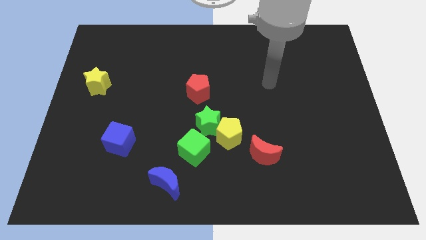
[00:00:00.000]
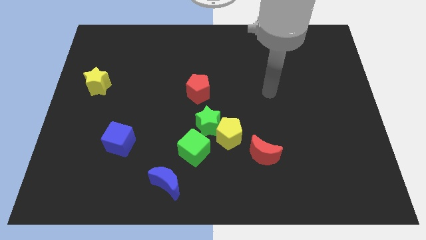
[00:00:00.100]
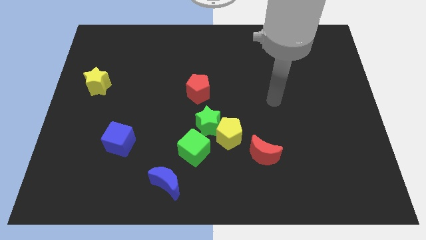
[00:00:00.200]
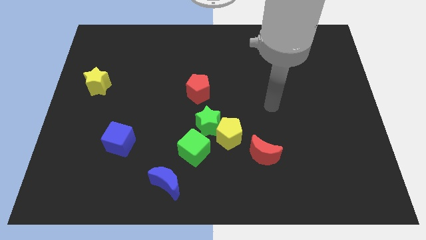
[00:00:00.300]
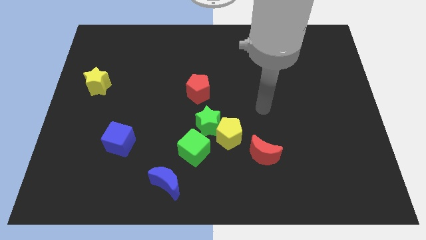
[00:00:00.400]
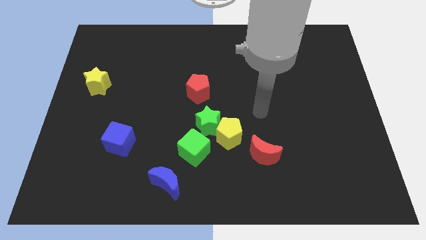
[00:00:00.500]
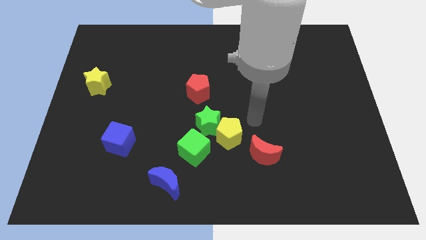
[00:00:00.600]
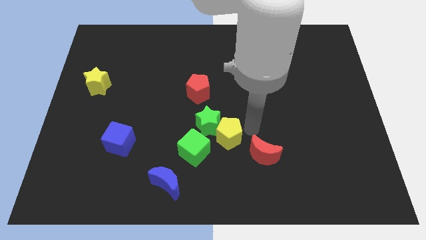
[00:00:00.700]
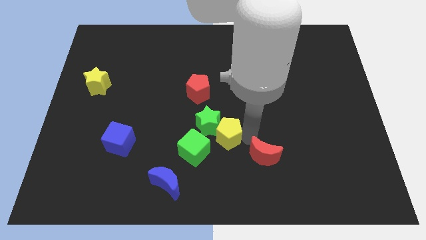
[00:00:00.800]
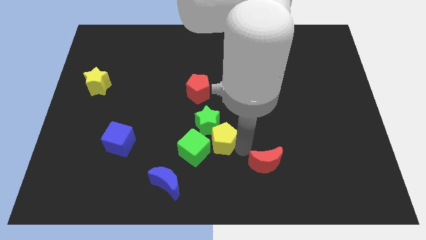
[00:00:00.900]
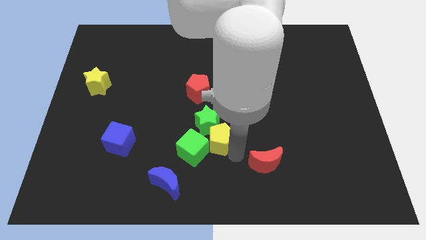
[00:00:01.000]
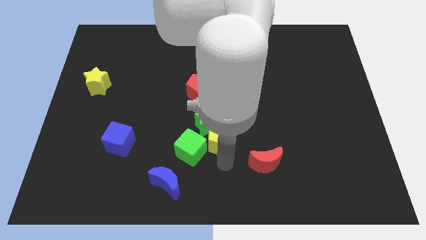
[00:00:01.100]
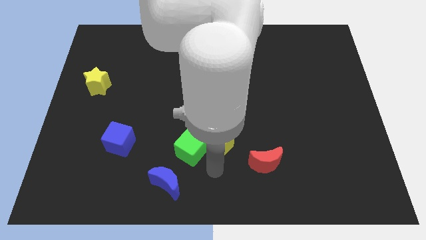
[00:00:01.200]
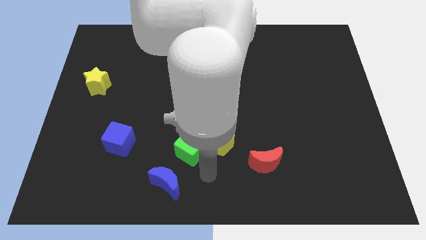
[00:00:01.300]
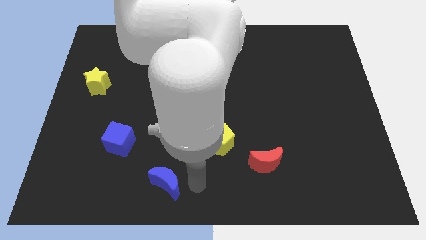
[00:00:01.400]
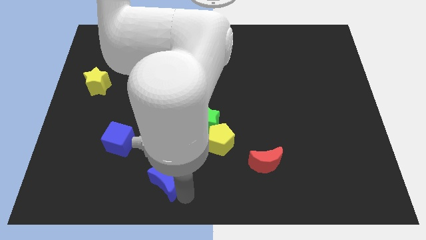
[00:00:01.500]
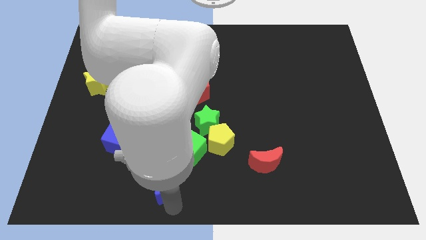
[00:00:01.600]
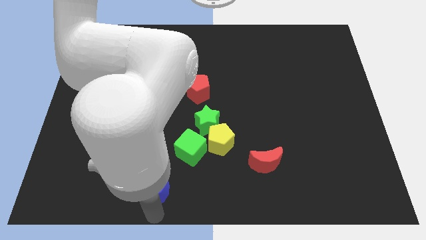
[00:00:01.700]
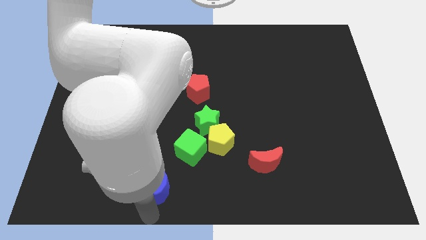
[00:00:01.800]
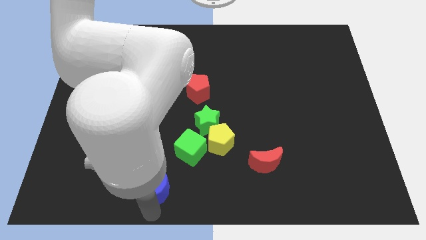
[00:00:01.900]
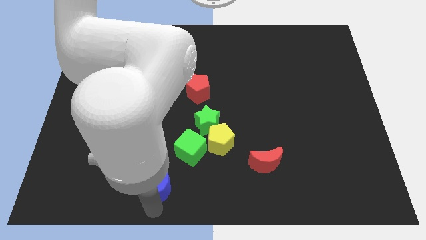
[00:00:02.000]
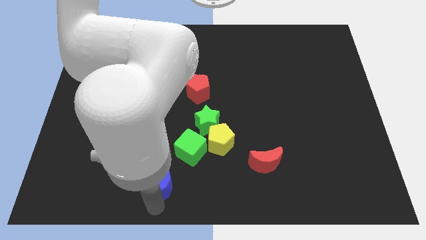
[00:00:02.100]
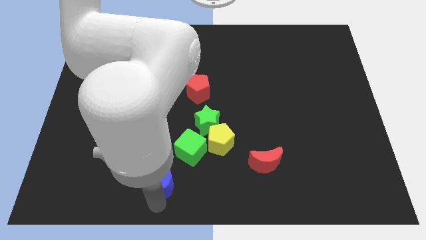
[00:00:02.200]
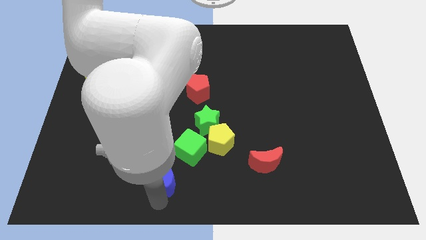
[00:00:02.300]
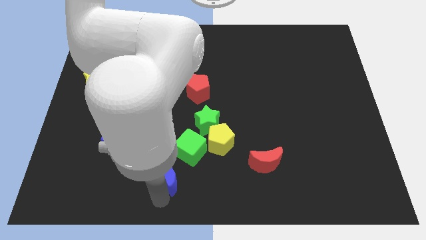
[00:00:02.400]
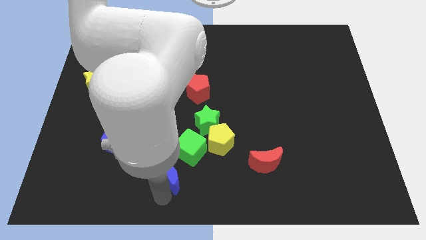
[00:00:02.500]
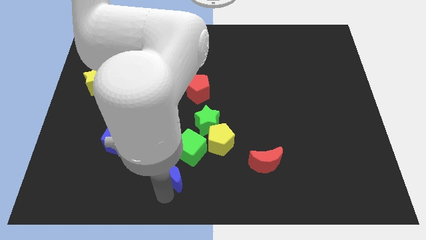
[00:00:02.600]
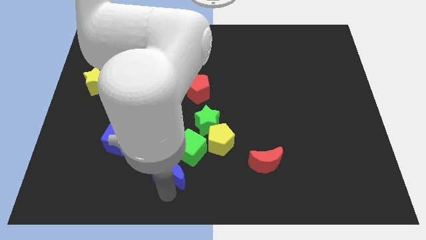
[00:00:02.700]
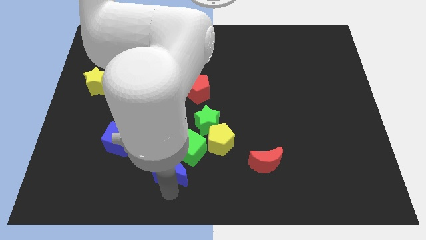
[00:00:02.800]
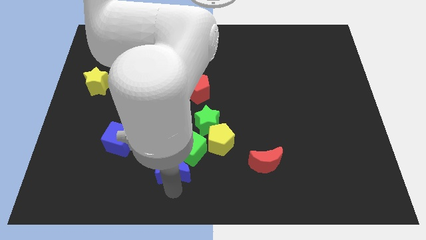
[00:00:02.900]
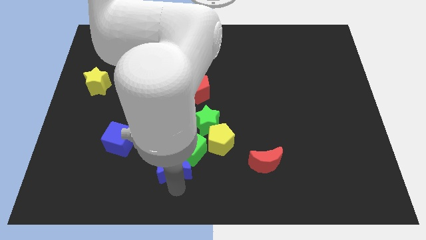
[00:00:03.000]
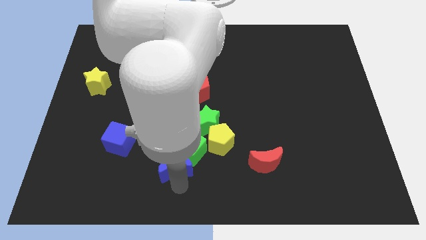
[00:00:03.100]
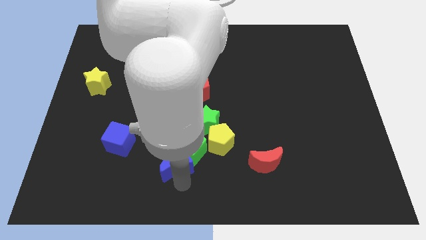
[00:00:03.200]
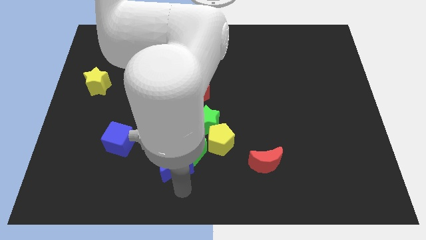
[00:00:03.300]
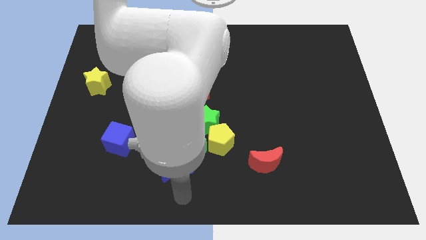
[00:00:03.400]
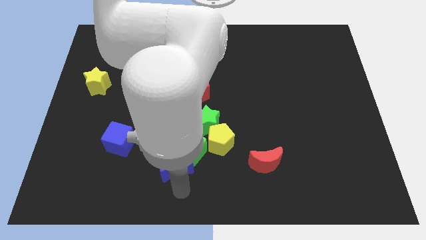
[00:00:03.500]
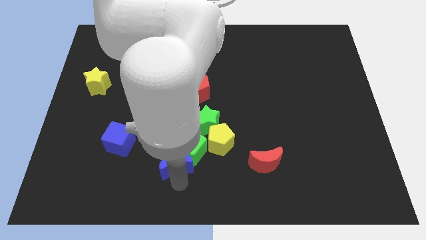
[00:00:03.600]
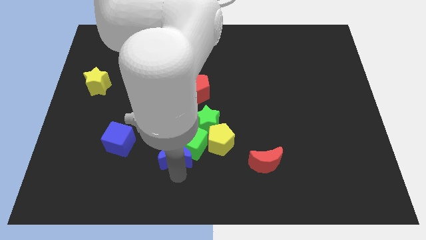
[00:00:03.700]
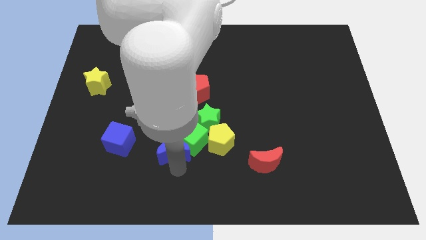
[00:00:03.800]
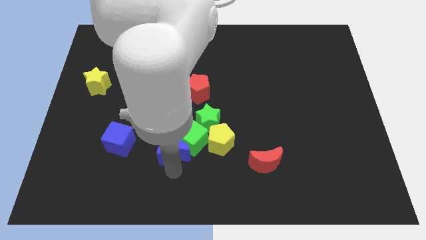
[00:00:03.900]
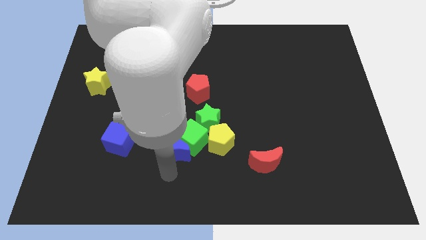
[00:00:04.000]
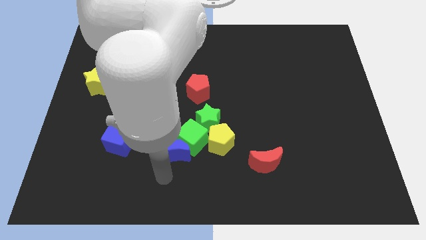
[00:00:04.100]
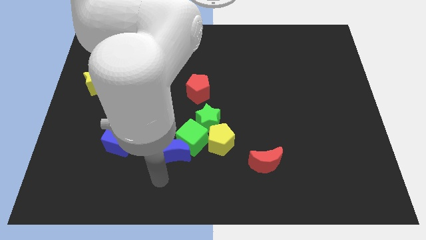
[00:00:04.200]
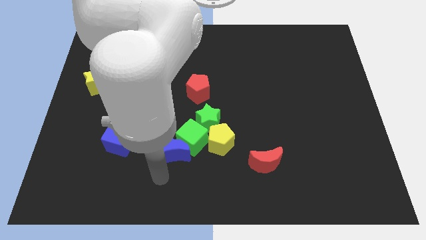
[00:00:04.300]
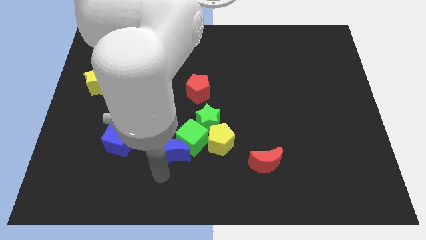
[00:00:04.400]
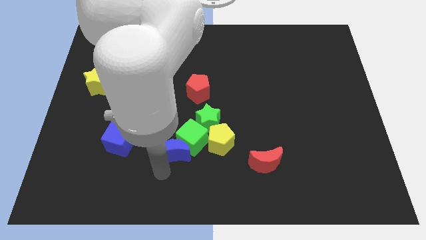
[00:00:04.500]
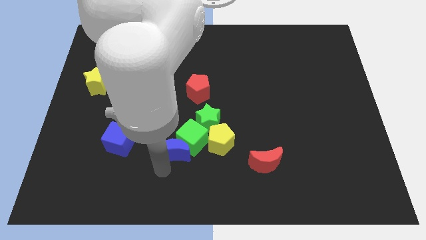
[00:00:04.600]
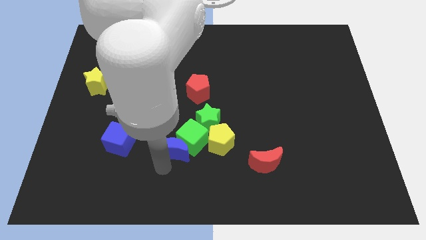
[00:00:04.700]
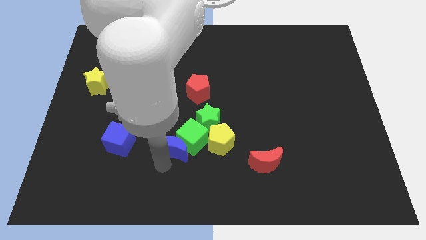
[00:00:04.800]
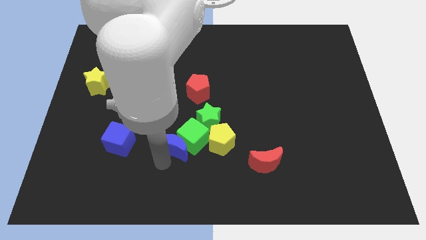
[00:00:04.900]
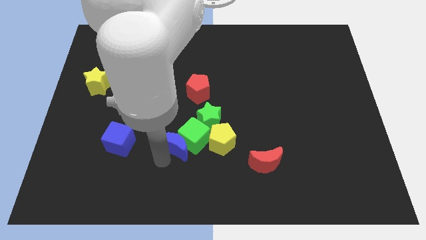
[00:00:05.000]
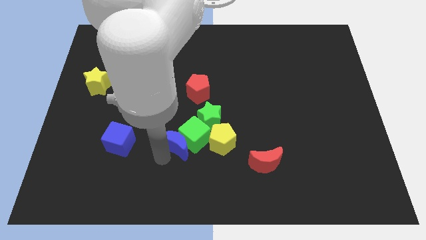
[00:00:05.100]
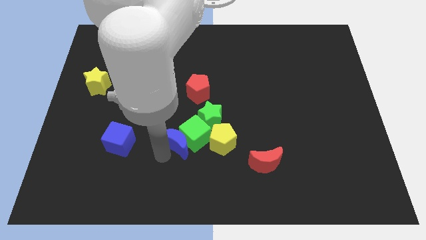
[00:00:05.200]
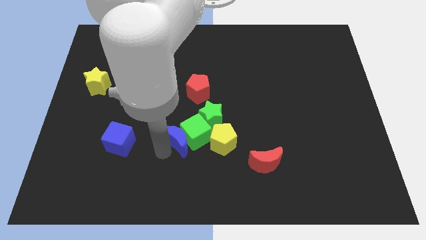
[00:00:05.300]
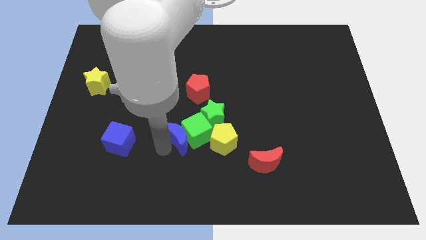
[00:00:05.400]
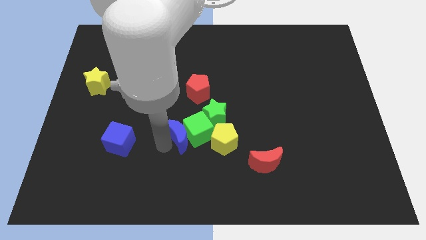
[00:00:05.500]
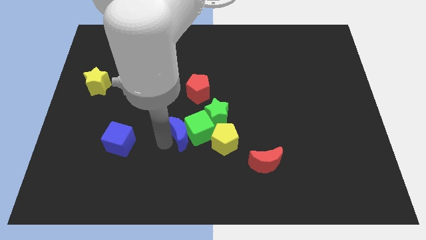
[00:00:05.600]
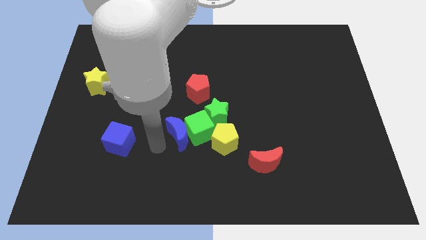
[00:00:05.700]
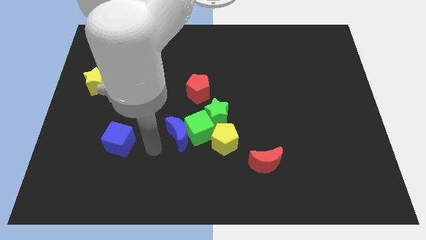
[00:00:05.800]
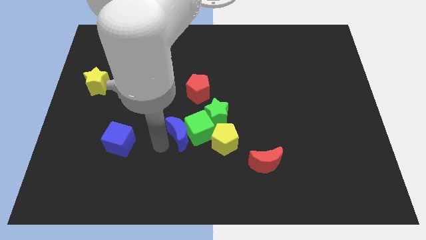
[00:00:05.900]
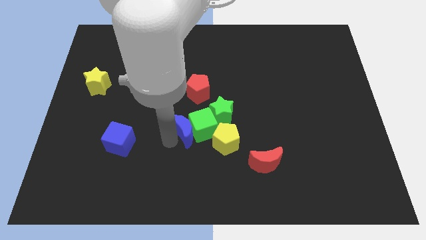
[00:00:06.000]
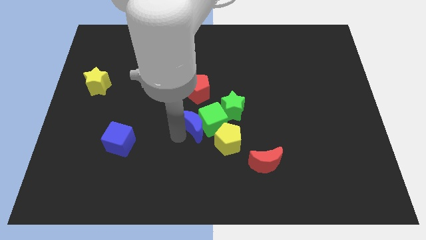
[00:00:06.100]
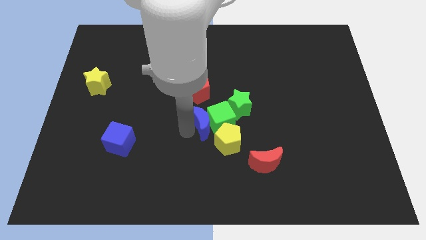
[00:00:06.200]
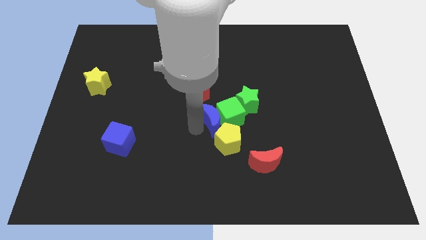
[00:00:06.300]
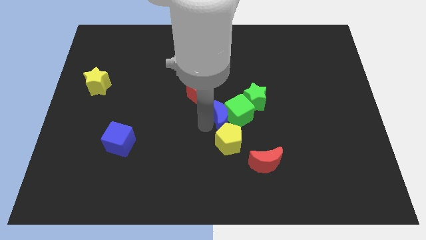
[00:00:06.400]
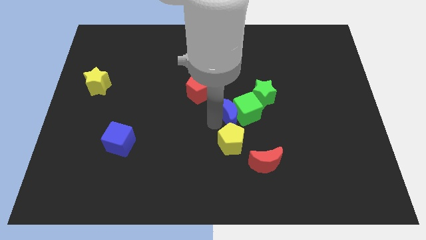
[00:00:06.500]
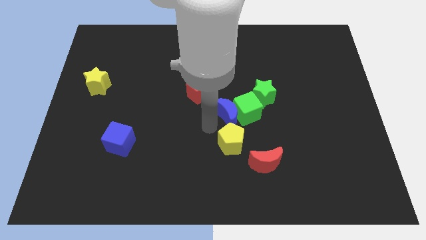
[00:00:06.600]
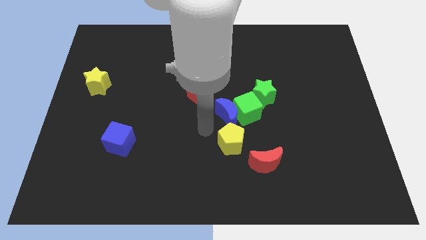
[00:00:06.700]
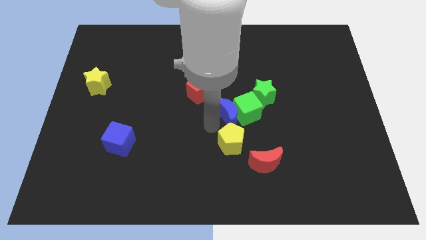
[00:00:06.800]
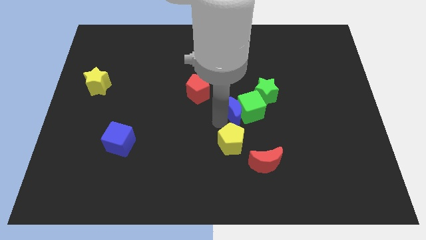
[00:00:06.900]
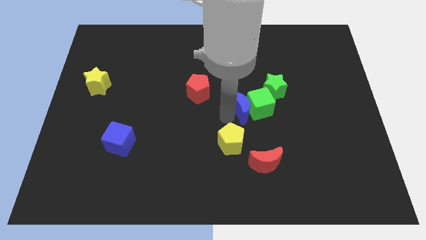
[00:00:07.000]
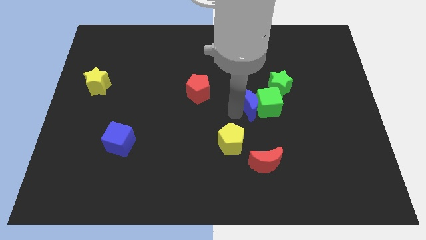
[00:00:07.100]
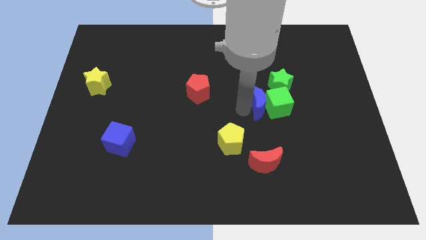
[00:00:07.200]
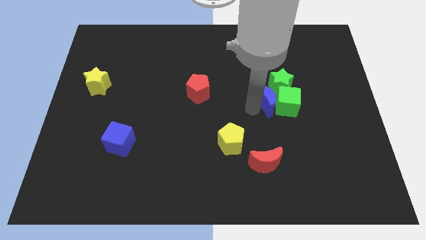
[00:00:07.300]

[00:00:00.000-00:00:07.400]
slide the blue moon next to the green star
